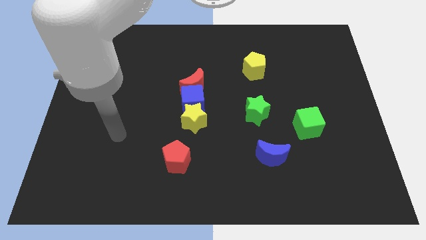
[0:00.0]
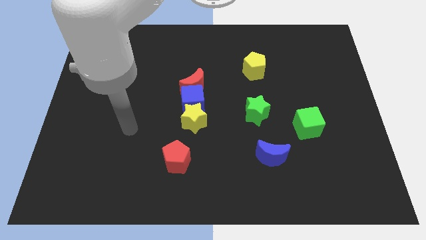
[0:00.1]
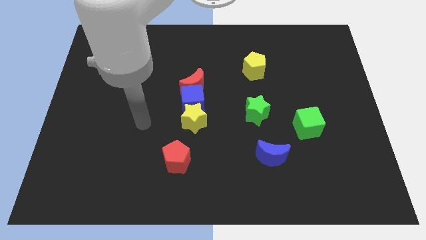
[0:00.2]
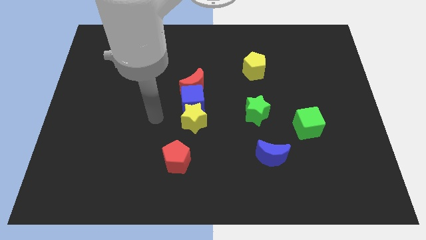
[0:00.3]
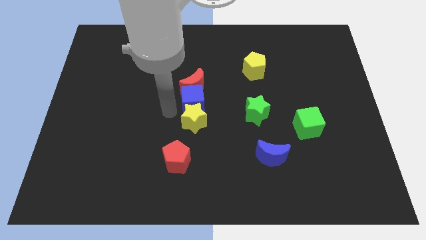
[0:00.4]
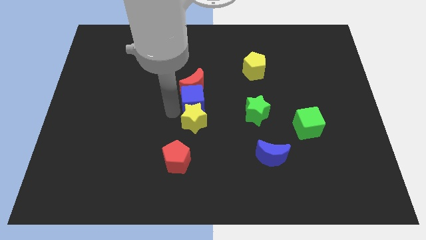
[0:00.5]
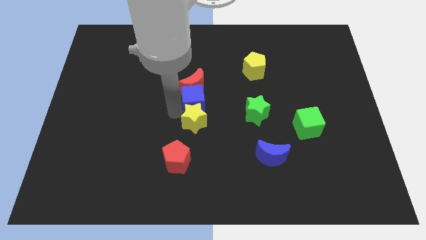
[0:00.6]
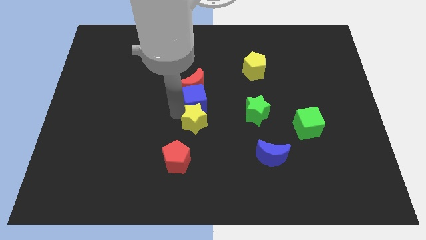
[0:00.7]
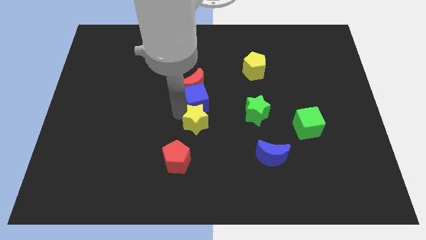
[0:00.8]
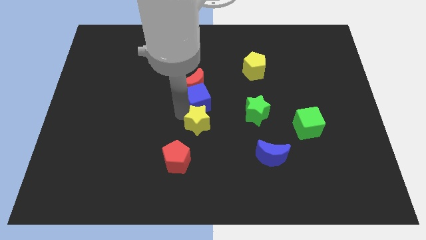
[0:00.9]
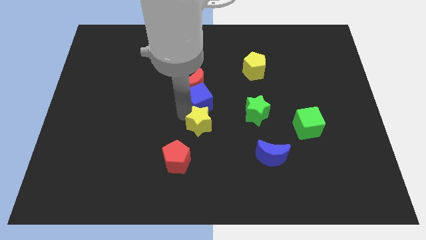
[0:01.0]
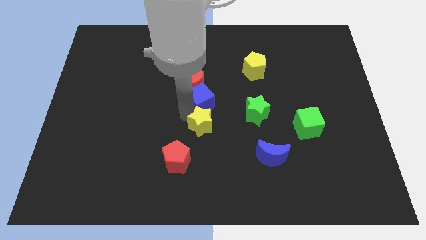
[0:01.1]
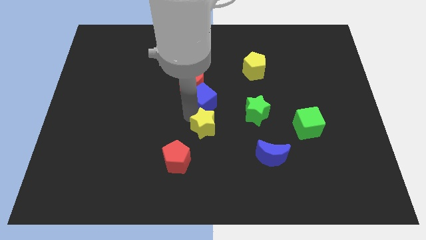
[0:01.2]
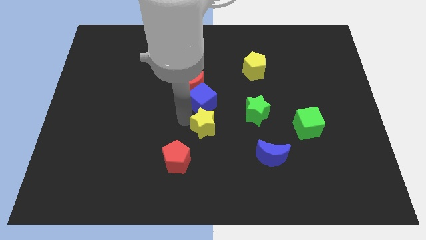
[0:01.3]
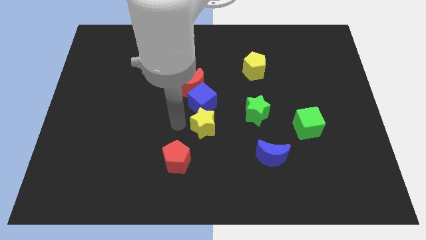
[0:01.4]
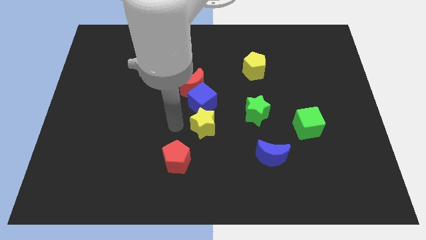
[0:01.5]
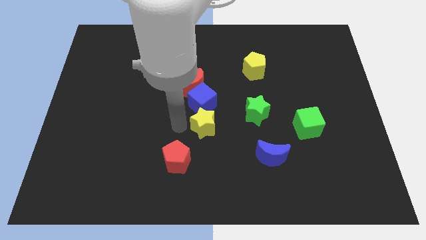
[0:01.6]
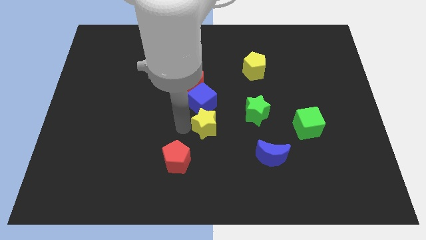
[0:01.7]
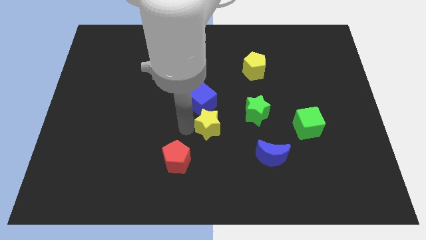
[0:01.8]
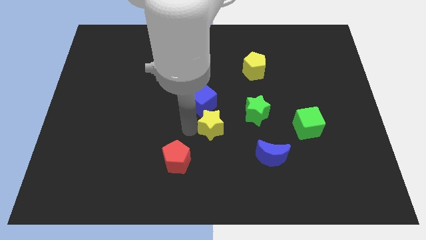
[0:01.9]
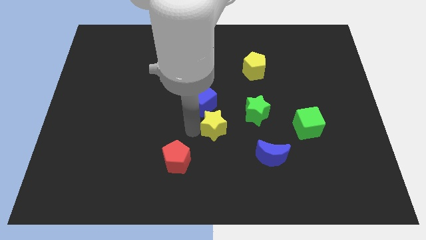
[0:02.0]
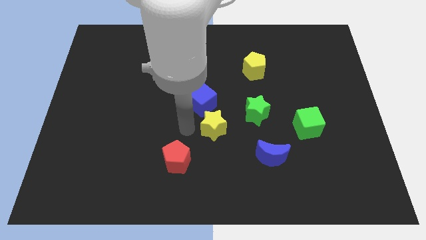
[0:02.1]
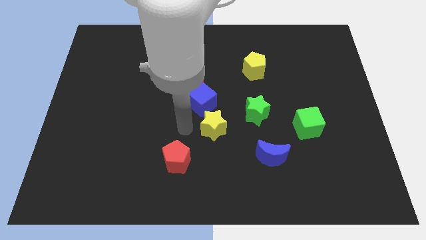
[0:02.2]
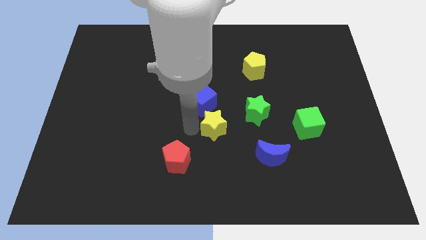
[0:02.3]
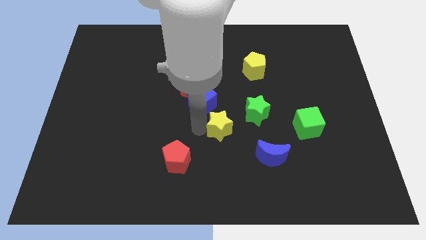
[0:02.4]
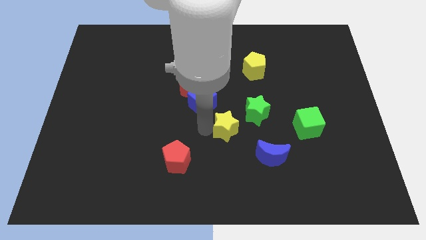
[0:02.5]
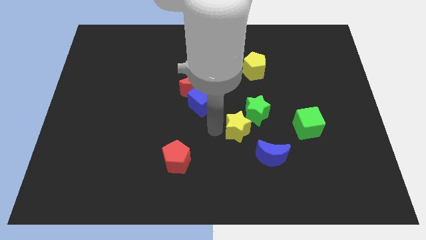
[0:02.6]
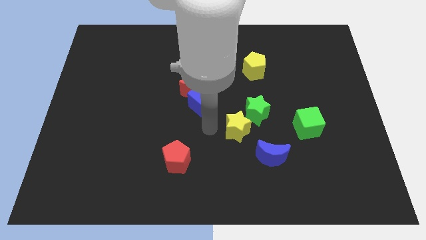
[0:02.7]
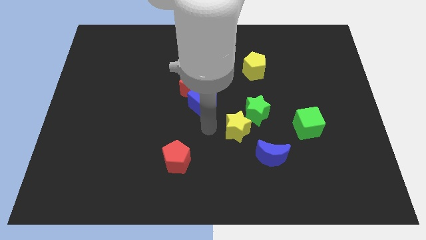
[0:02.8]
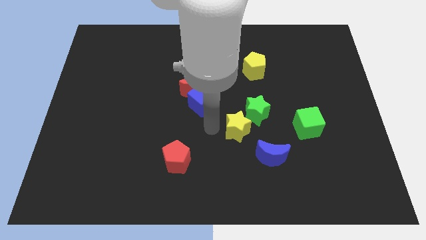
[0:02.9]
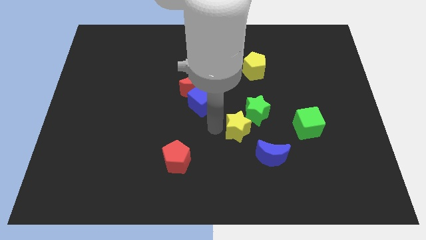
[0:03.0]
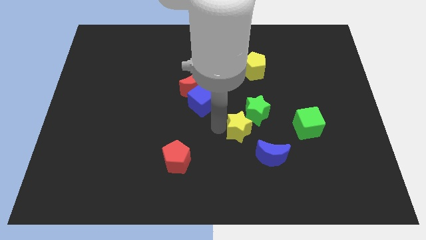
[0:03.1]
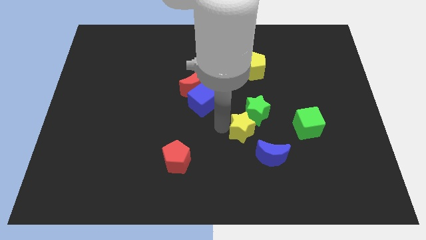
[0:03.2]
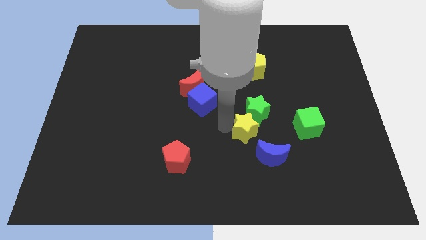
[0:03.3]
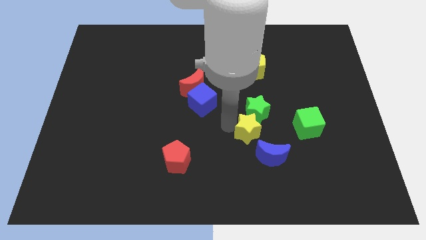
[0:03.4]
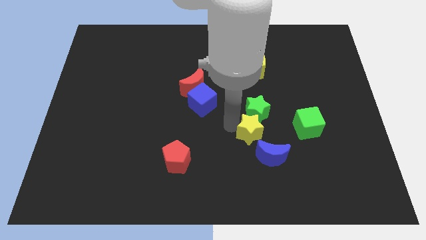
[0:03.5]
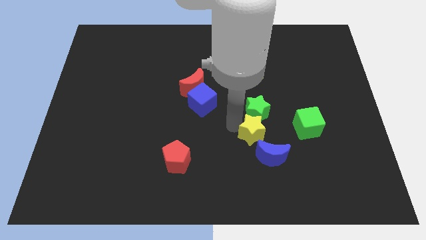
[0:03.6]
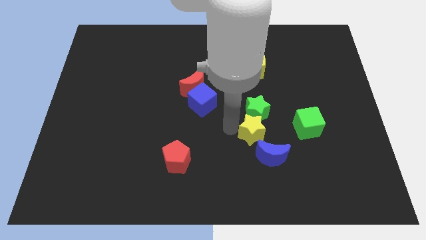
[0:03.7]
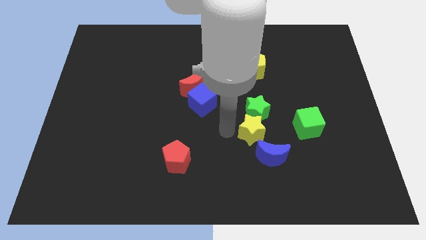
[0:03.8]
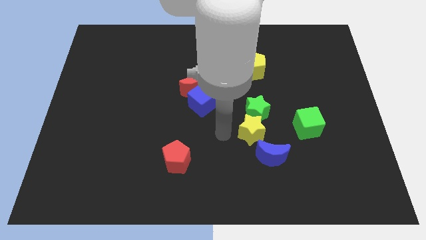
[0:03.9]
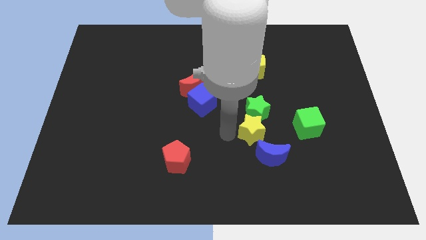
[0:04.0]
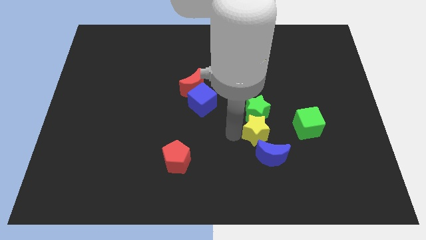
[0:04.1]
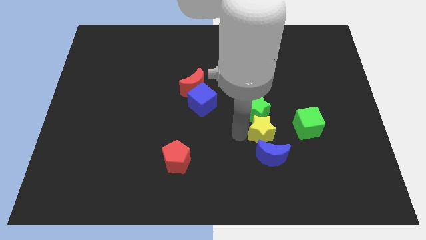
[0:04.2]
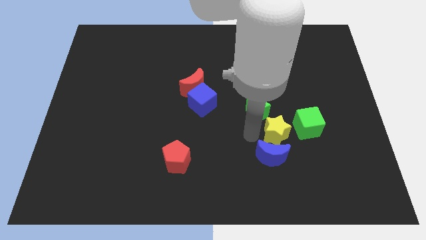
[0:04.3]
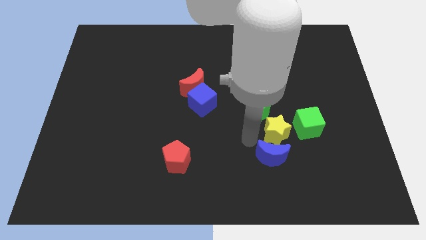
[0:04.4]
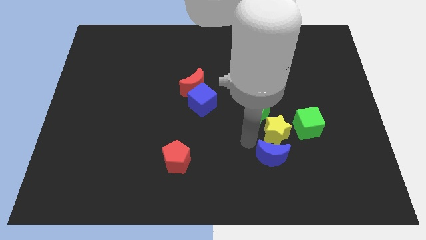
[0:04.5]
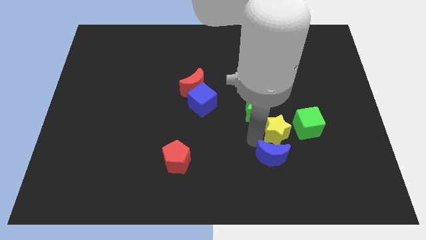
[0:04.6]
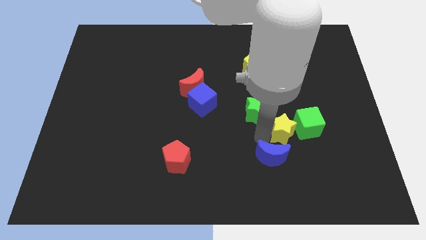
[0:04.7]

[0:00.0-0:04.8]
push the yellow star close to the green cube

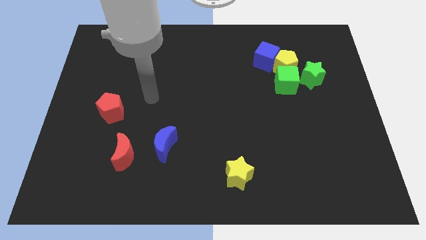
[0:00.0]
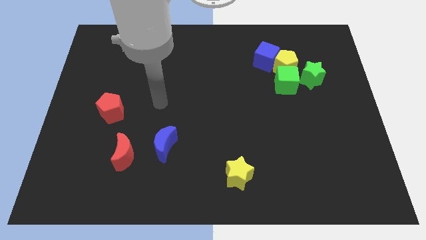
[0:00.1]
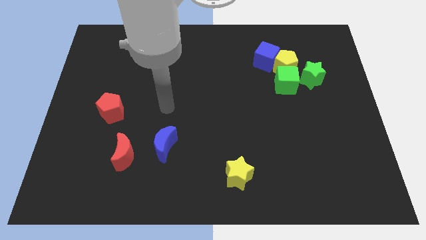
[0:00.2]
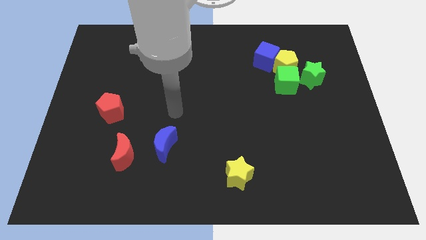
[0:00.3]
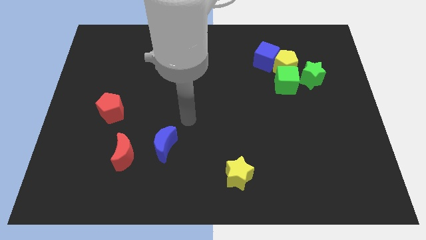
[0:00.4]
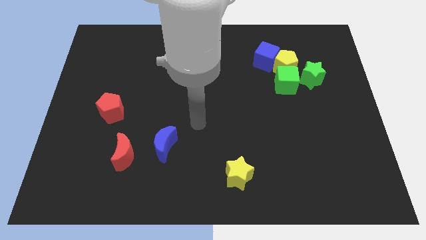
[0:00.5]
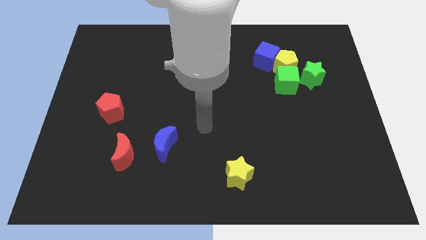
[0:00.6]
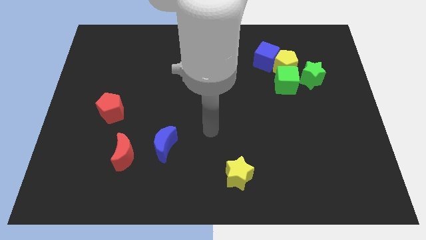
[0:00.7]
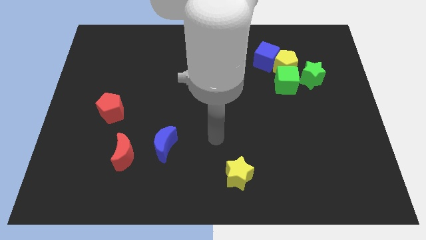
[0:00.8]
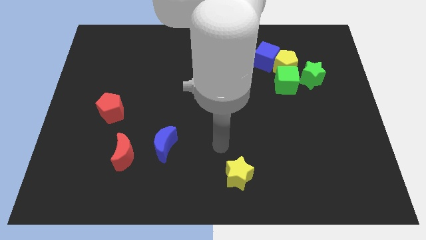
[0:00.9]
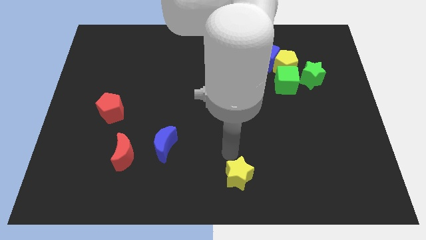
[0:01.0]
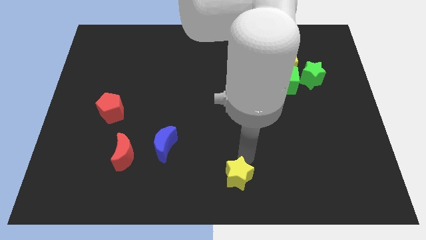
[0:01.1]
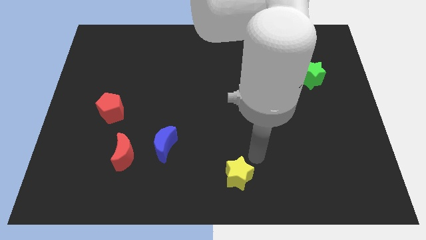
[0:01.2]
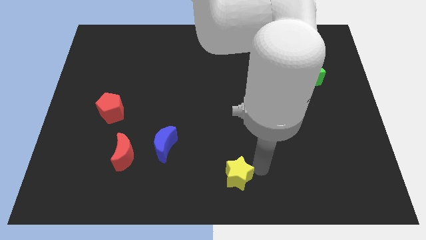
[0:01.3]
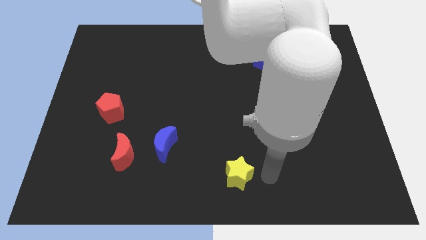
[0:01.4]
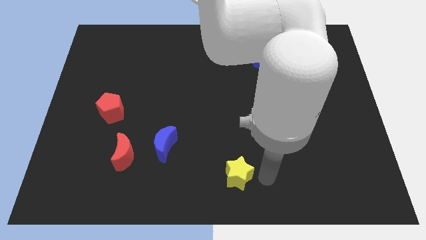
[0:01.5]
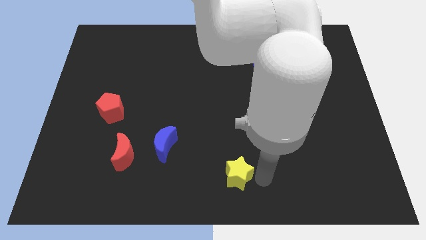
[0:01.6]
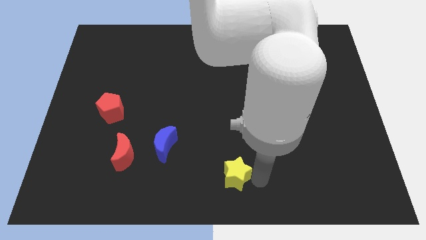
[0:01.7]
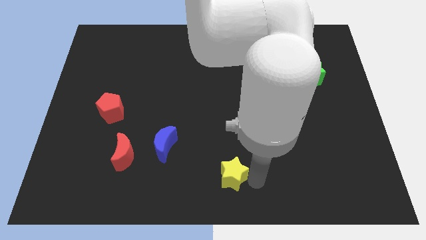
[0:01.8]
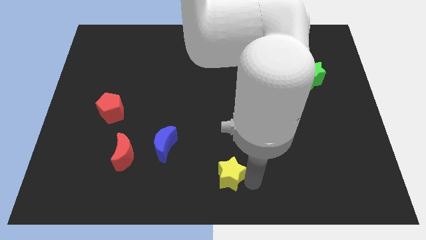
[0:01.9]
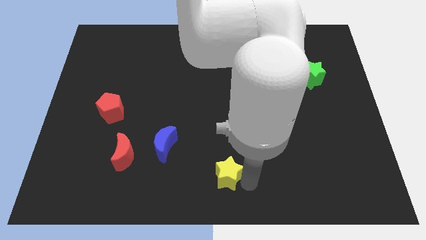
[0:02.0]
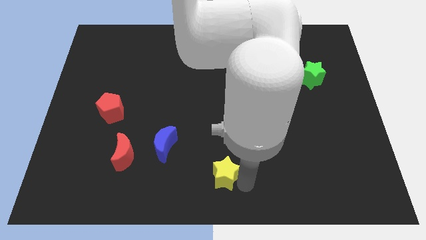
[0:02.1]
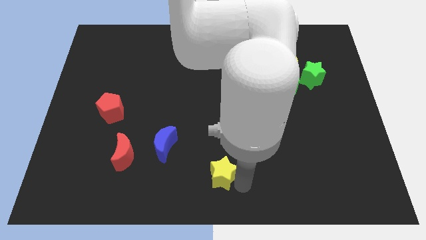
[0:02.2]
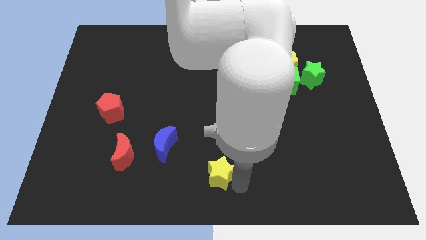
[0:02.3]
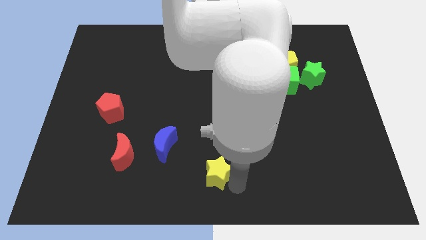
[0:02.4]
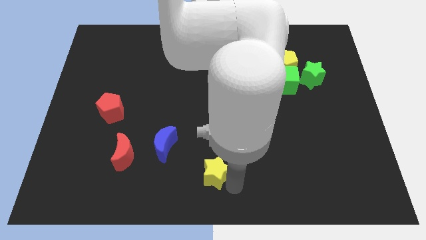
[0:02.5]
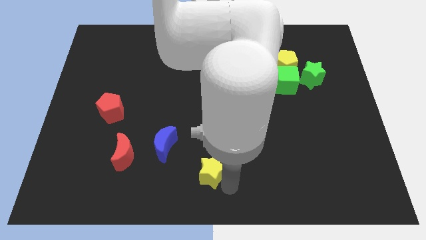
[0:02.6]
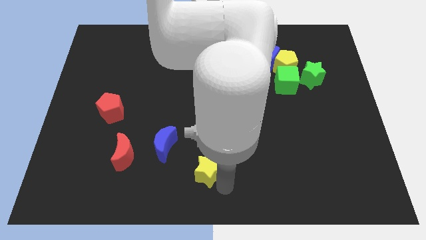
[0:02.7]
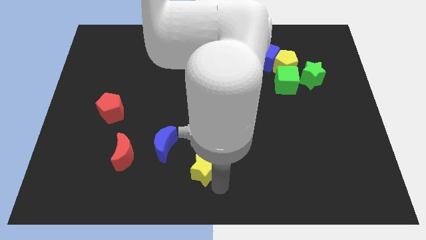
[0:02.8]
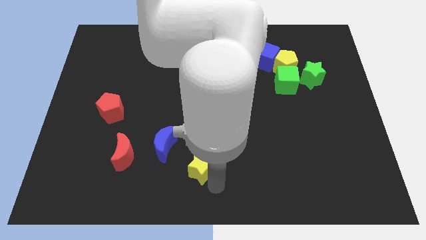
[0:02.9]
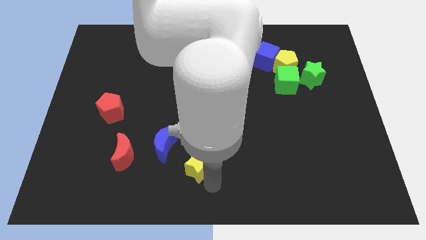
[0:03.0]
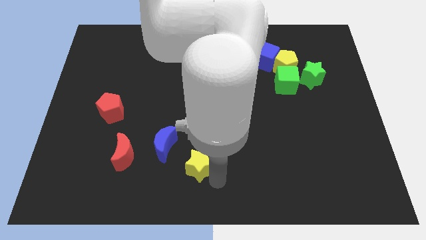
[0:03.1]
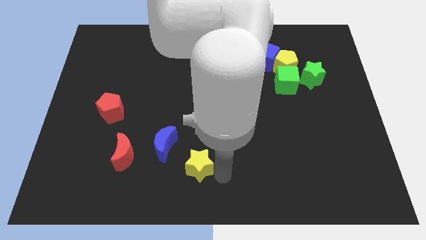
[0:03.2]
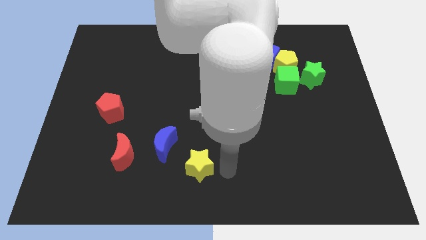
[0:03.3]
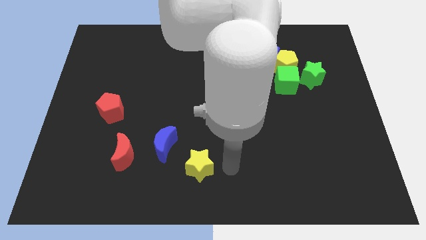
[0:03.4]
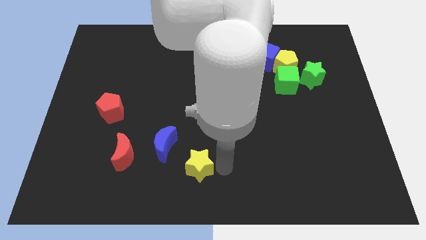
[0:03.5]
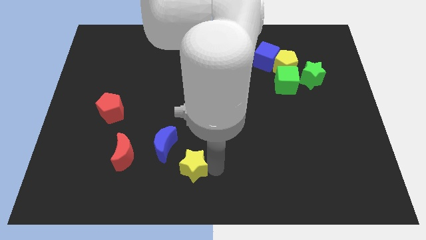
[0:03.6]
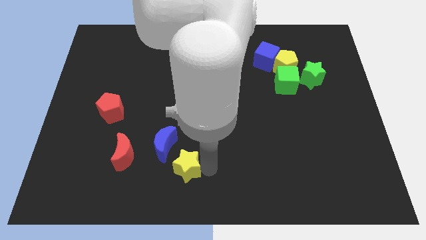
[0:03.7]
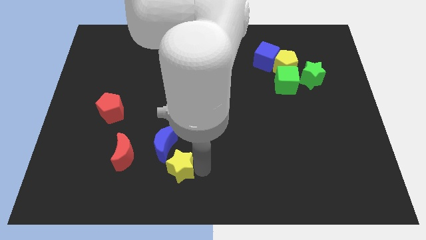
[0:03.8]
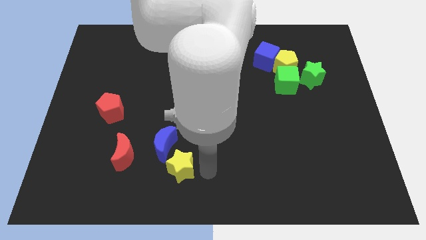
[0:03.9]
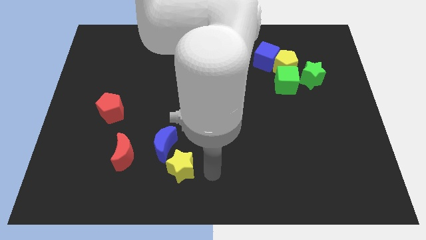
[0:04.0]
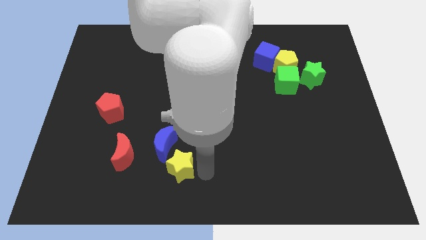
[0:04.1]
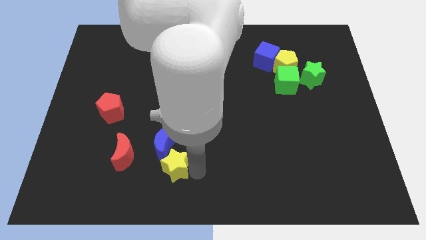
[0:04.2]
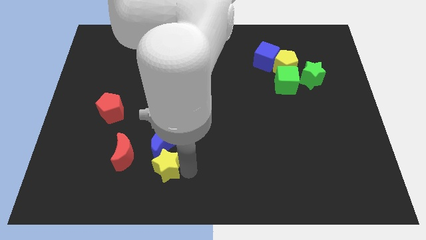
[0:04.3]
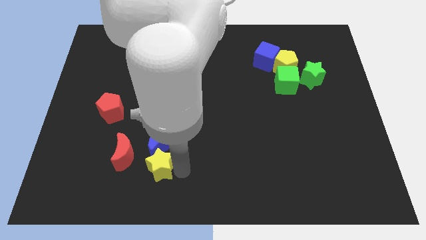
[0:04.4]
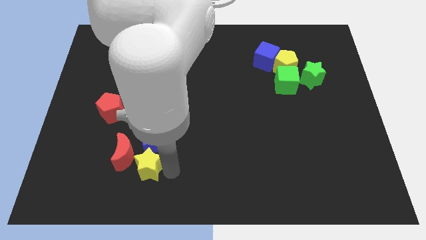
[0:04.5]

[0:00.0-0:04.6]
push the yellow star towards the red moon
